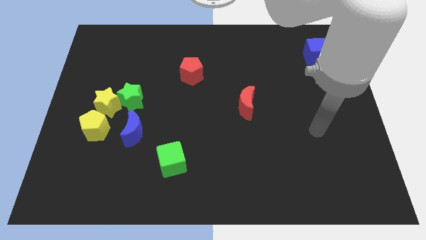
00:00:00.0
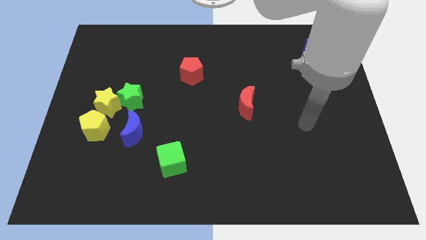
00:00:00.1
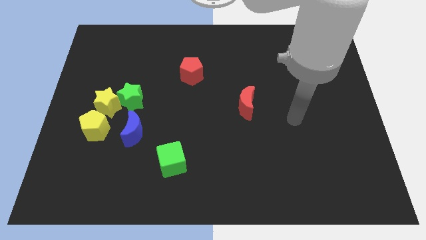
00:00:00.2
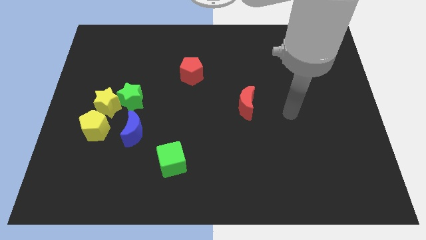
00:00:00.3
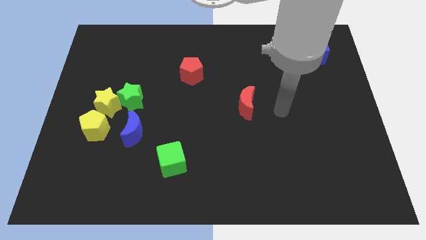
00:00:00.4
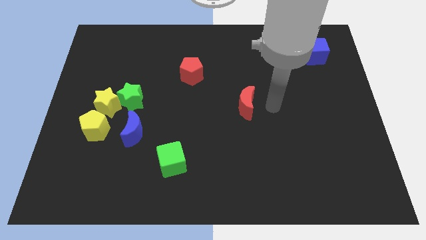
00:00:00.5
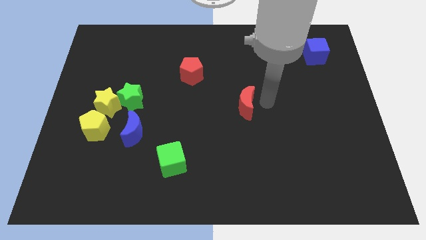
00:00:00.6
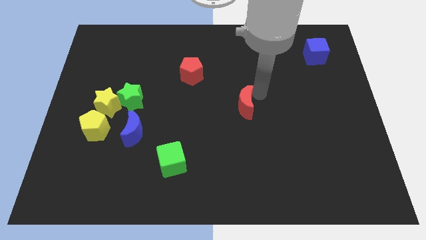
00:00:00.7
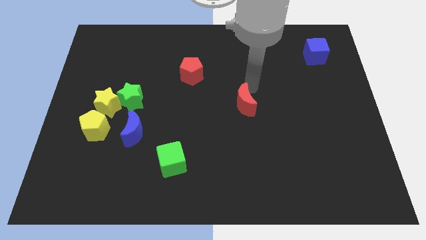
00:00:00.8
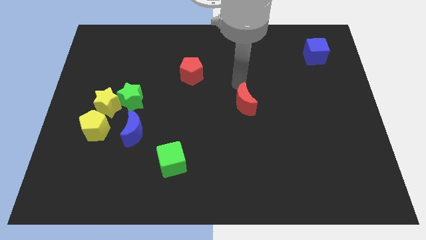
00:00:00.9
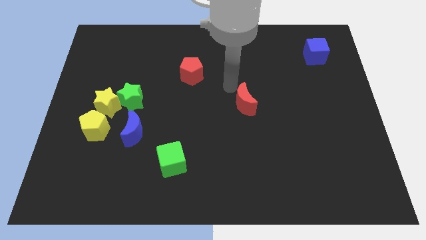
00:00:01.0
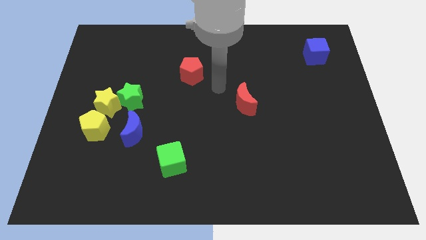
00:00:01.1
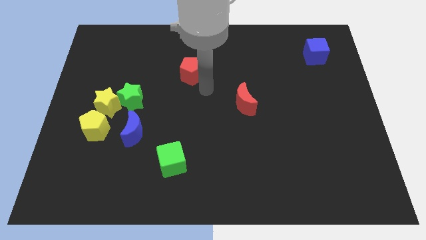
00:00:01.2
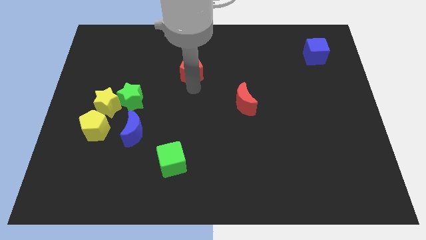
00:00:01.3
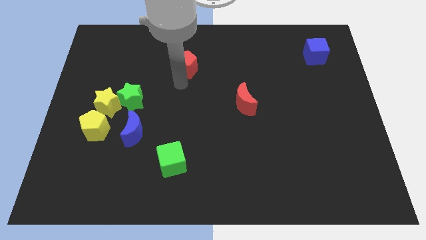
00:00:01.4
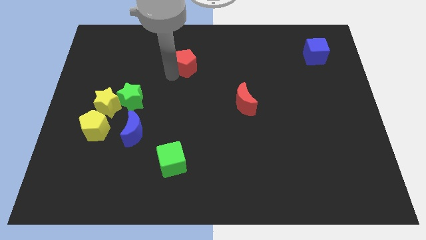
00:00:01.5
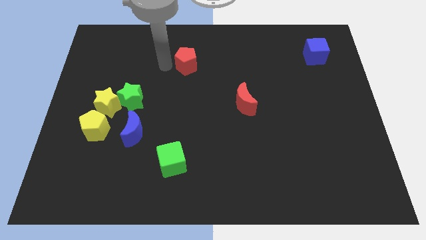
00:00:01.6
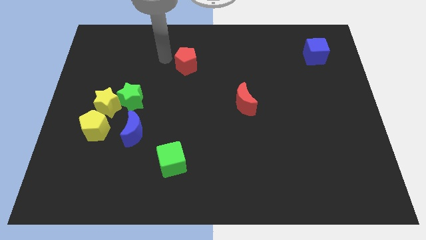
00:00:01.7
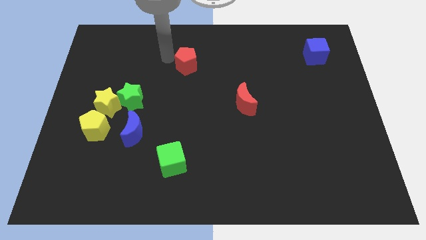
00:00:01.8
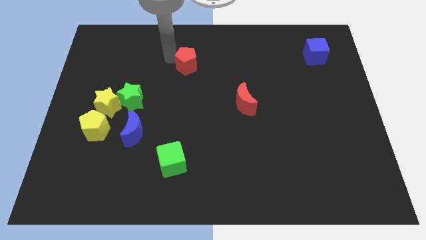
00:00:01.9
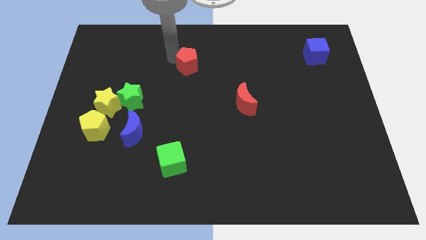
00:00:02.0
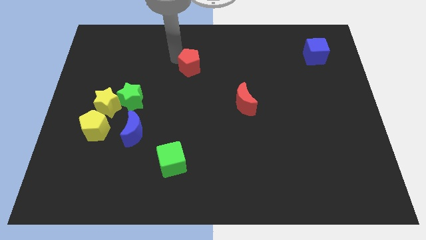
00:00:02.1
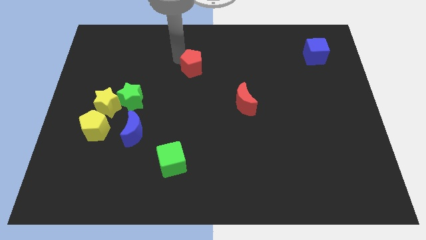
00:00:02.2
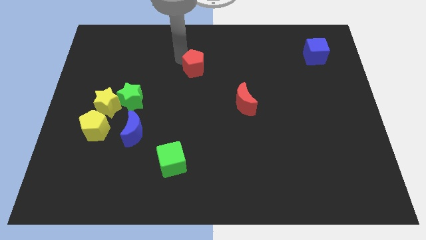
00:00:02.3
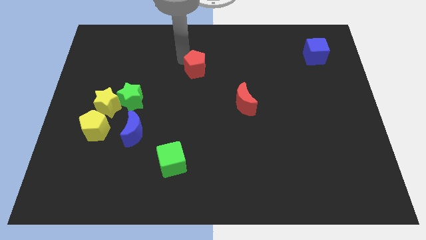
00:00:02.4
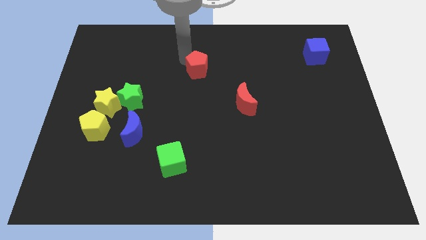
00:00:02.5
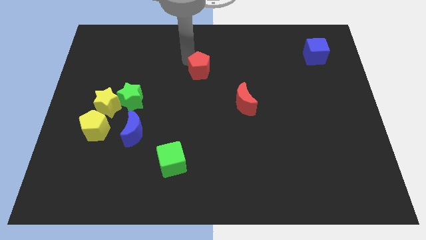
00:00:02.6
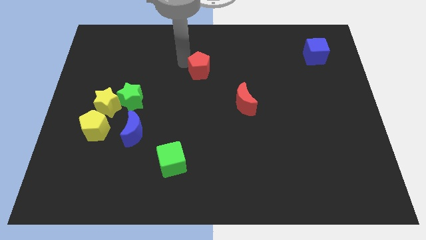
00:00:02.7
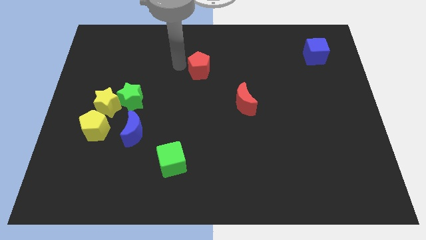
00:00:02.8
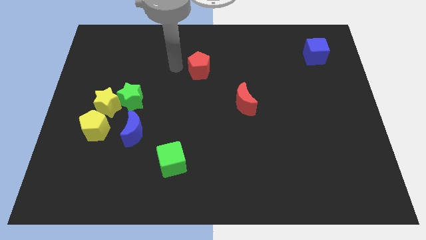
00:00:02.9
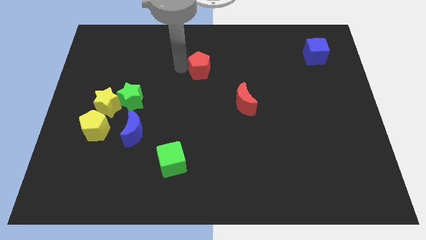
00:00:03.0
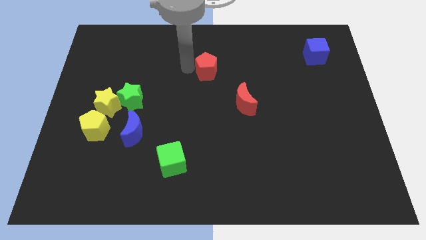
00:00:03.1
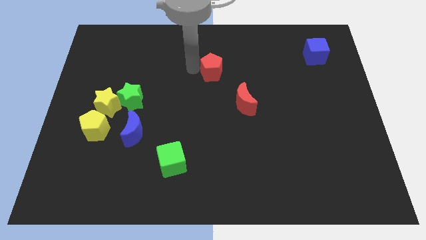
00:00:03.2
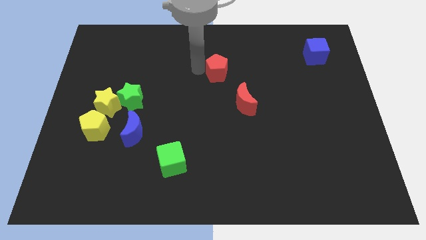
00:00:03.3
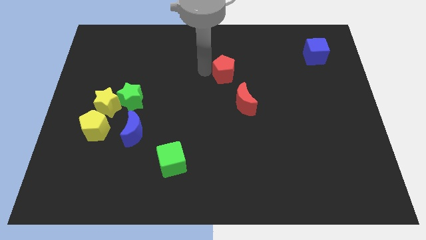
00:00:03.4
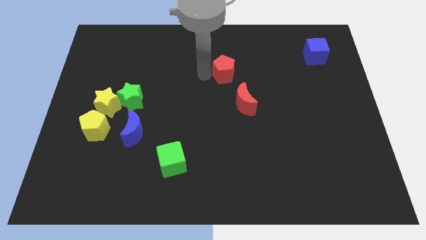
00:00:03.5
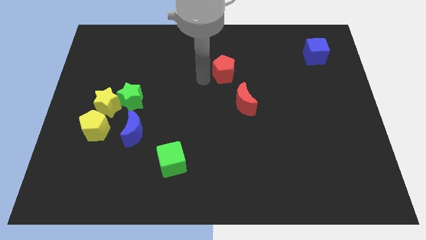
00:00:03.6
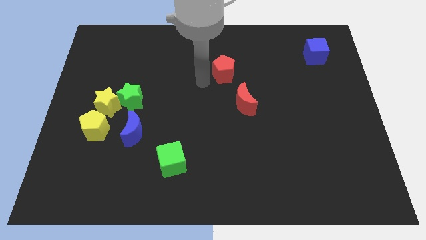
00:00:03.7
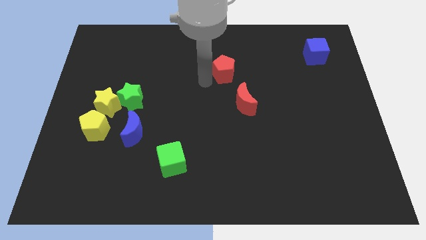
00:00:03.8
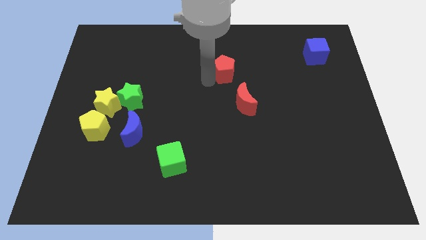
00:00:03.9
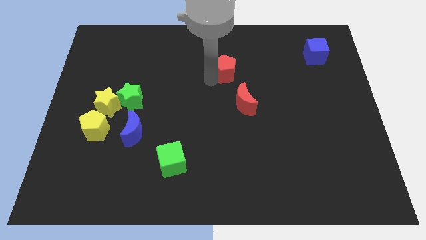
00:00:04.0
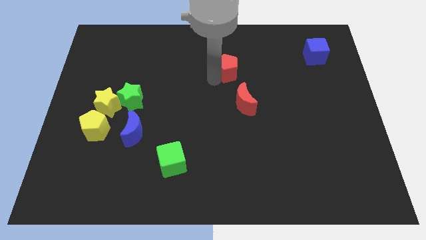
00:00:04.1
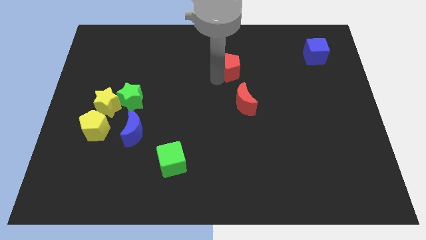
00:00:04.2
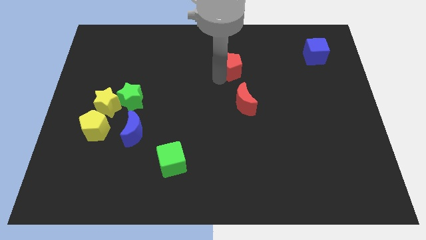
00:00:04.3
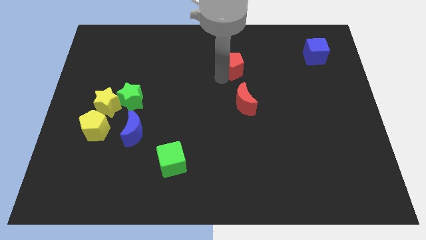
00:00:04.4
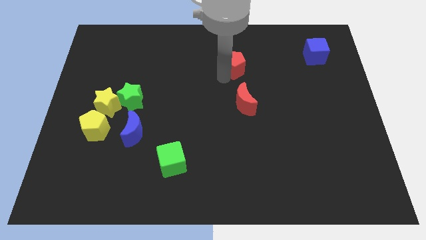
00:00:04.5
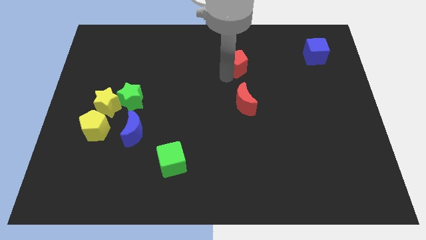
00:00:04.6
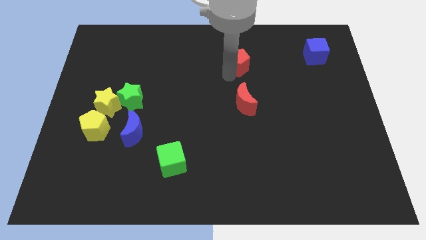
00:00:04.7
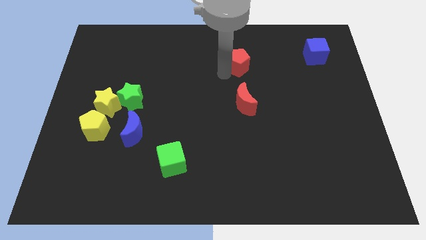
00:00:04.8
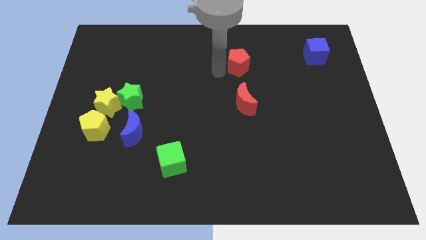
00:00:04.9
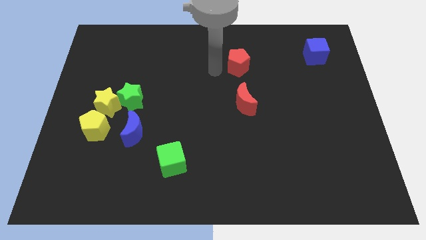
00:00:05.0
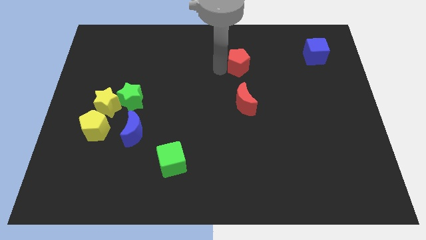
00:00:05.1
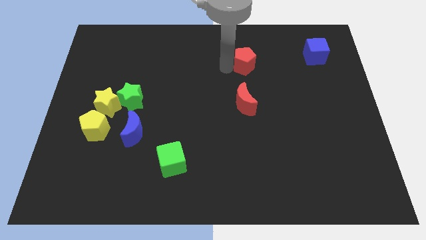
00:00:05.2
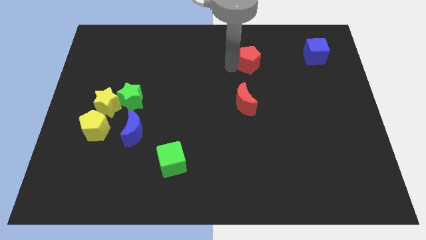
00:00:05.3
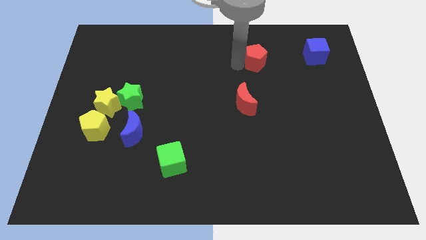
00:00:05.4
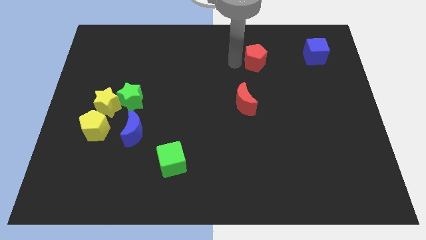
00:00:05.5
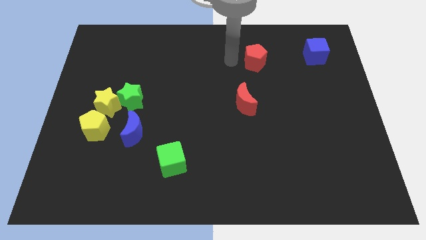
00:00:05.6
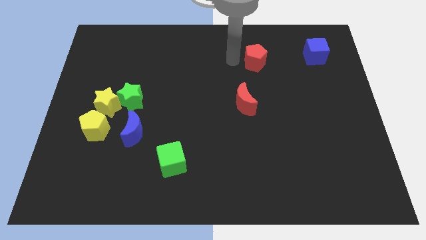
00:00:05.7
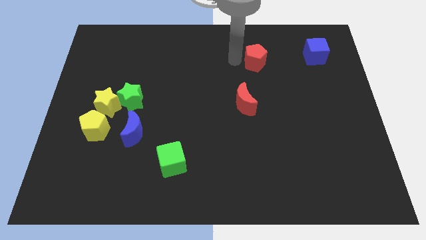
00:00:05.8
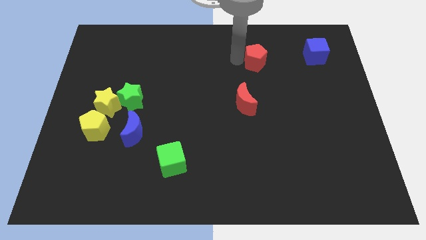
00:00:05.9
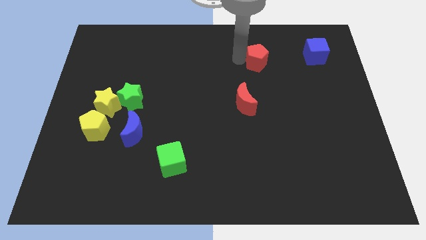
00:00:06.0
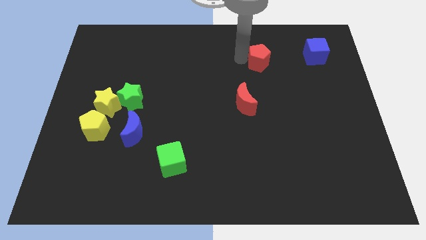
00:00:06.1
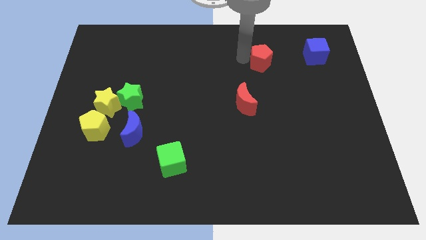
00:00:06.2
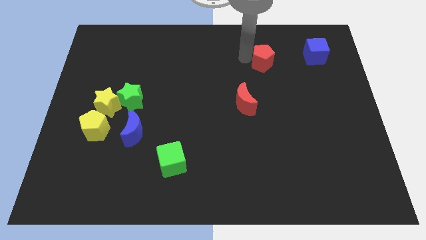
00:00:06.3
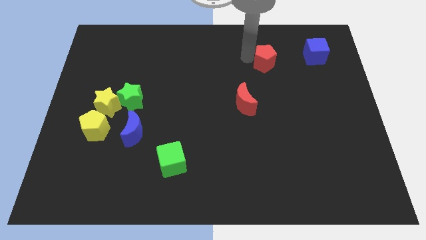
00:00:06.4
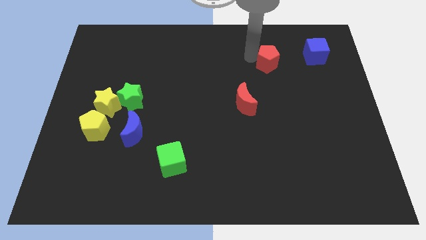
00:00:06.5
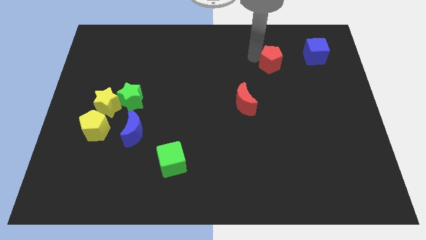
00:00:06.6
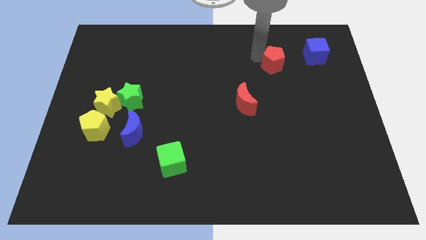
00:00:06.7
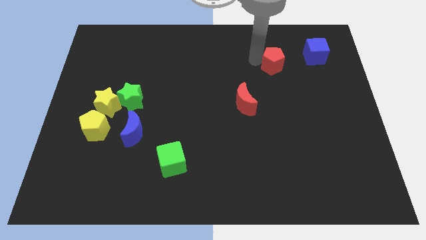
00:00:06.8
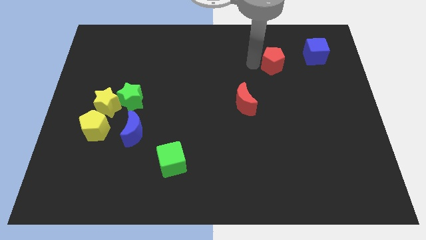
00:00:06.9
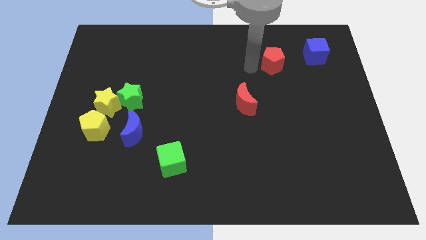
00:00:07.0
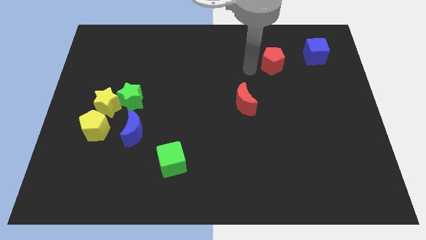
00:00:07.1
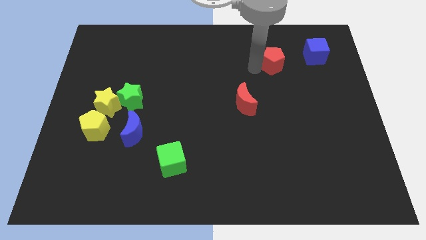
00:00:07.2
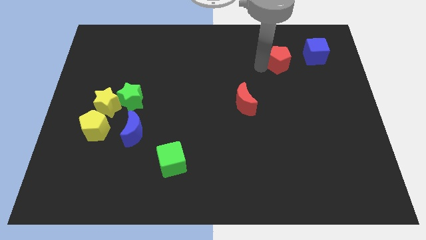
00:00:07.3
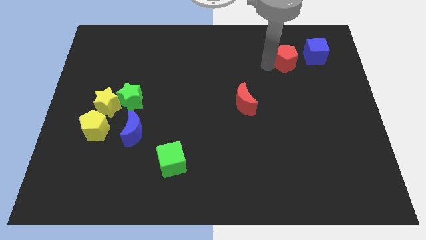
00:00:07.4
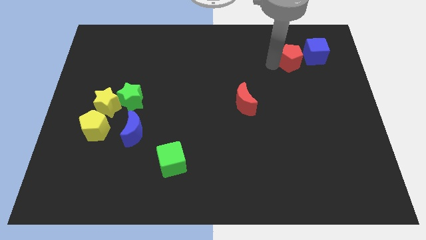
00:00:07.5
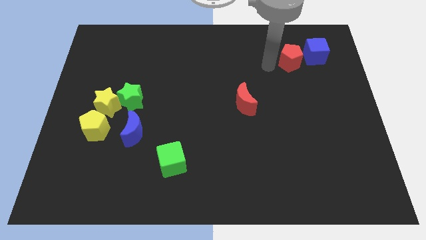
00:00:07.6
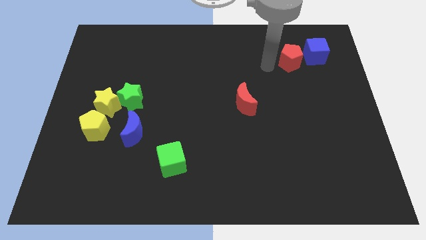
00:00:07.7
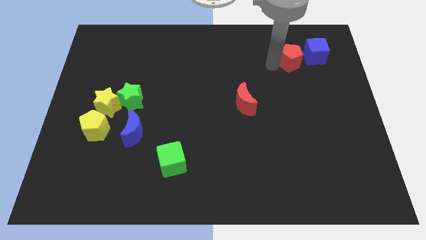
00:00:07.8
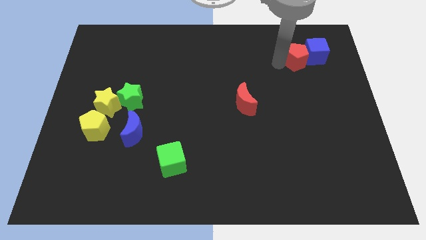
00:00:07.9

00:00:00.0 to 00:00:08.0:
push the red pentagon next to the blue cube
